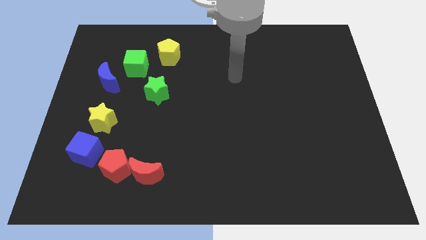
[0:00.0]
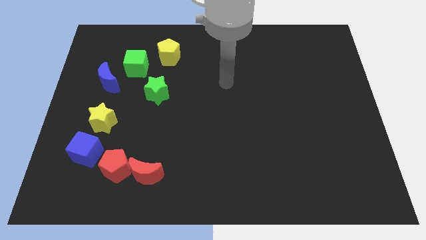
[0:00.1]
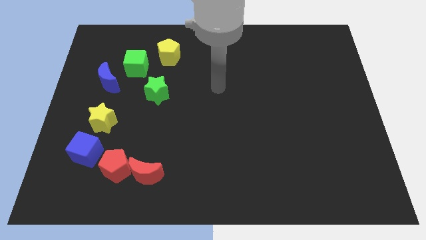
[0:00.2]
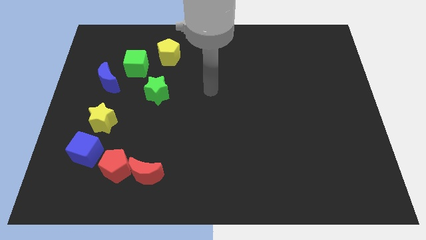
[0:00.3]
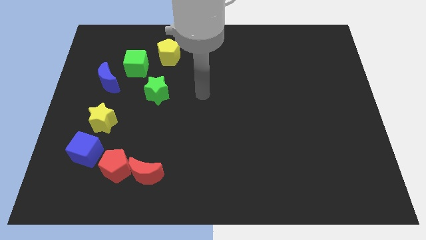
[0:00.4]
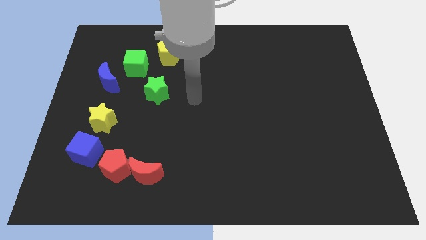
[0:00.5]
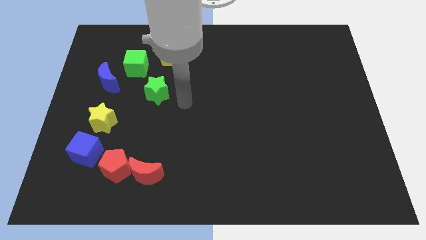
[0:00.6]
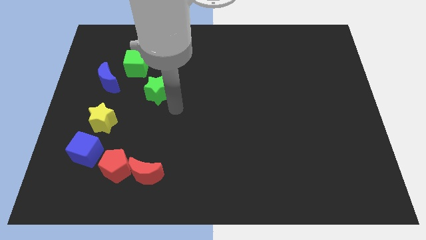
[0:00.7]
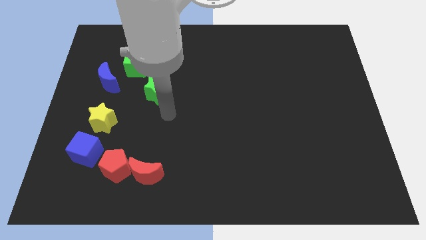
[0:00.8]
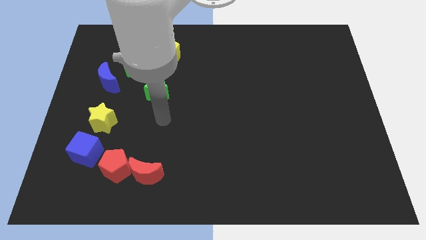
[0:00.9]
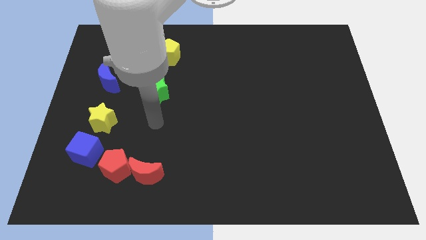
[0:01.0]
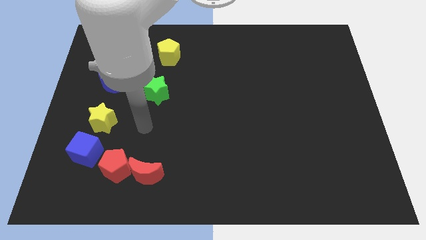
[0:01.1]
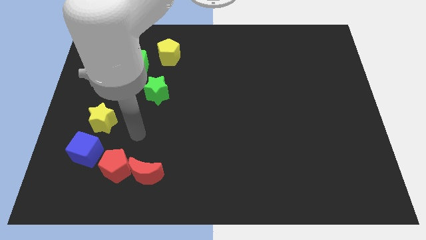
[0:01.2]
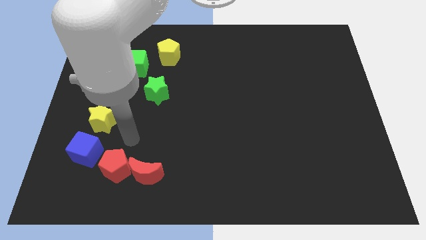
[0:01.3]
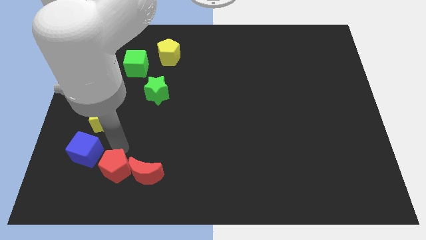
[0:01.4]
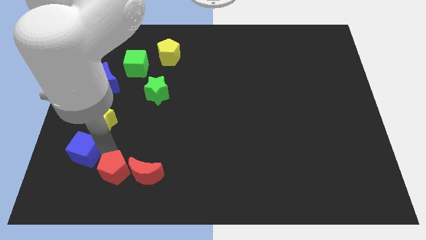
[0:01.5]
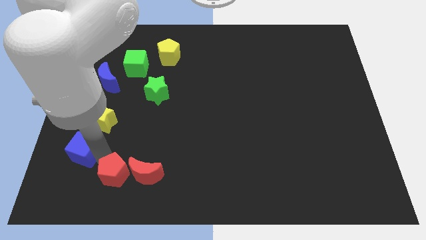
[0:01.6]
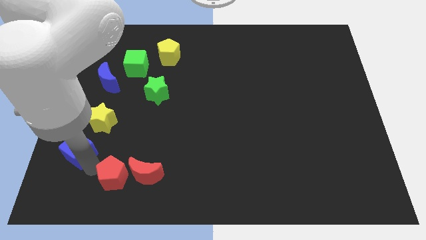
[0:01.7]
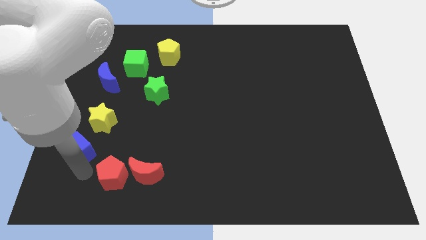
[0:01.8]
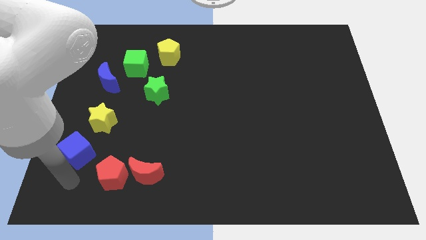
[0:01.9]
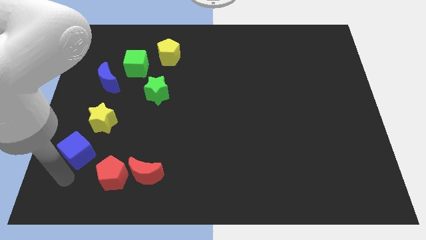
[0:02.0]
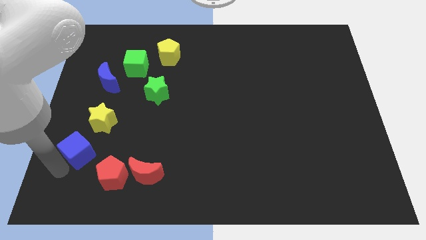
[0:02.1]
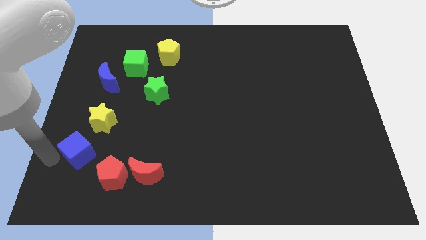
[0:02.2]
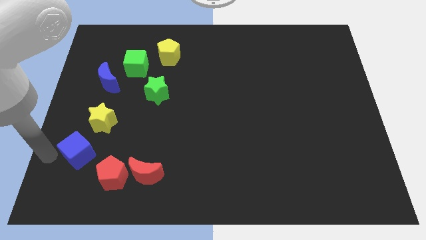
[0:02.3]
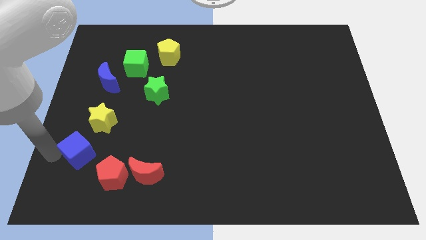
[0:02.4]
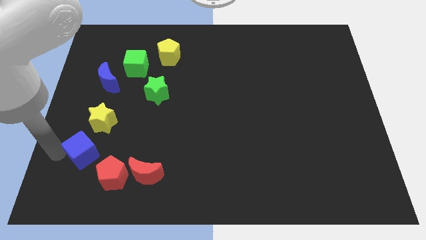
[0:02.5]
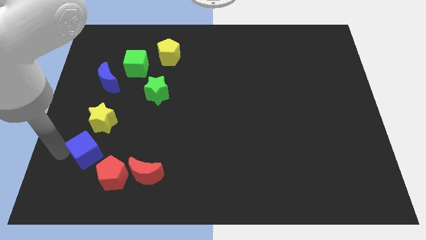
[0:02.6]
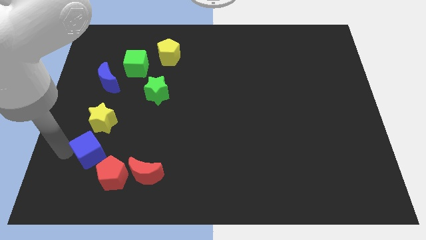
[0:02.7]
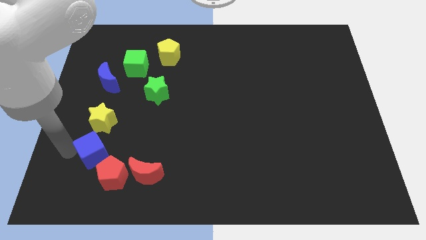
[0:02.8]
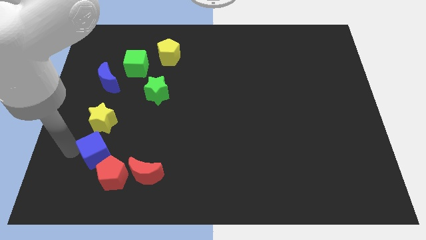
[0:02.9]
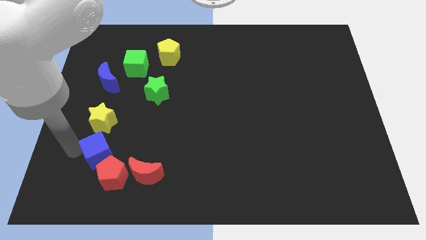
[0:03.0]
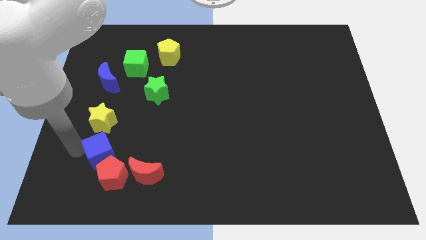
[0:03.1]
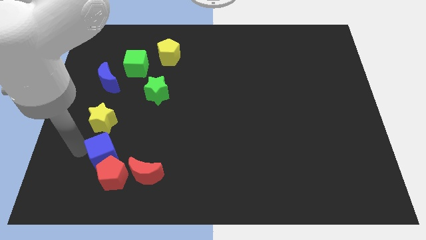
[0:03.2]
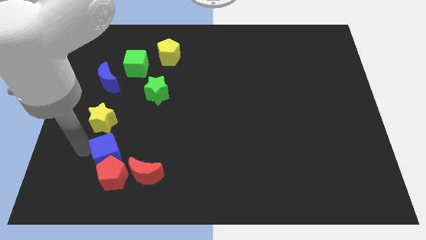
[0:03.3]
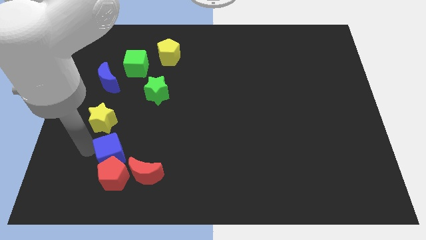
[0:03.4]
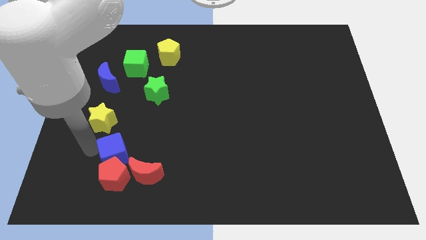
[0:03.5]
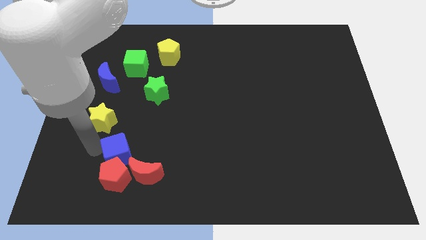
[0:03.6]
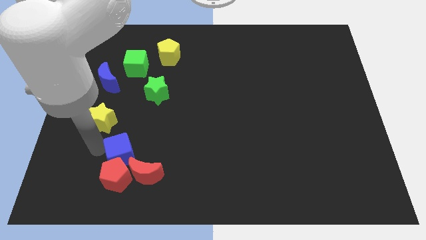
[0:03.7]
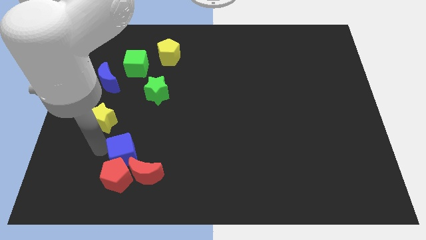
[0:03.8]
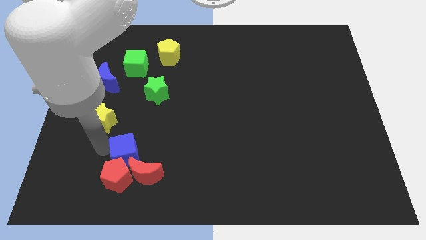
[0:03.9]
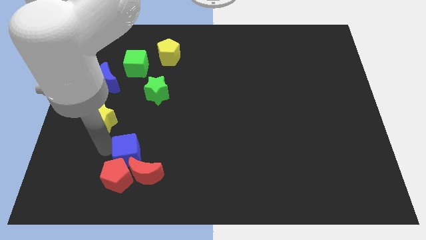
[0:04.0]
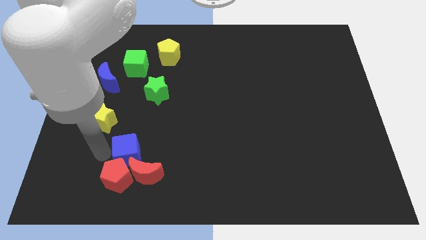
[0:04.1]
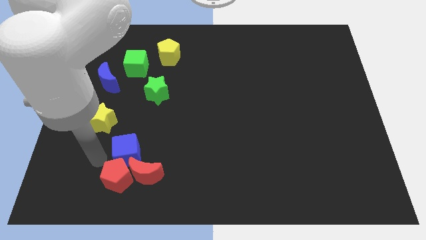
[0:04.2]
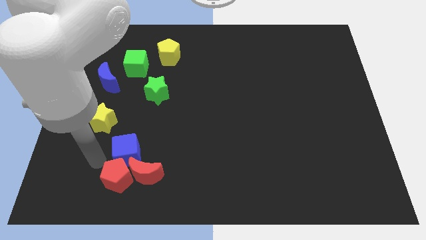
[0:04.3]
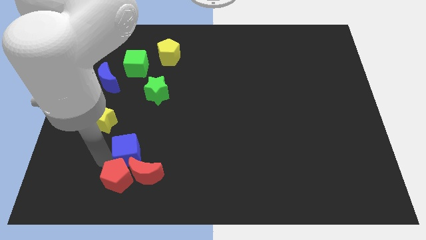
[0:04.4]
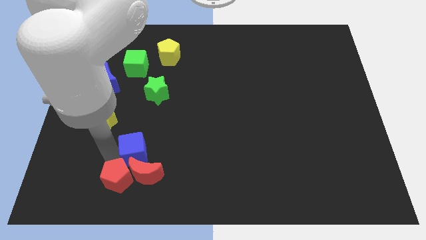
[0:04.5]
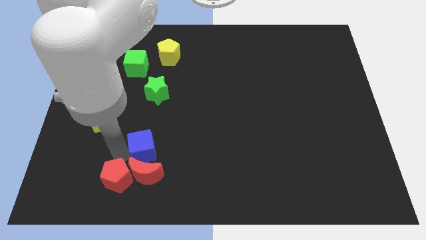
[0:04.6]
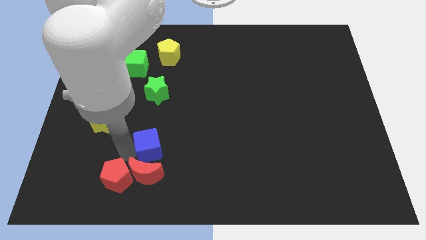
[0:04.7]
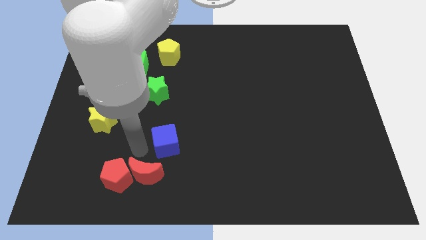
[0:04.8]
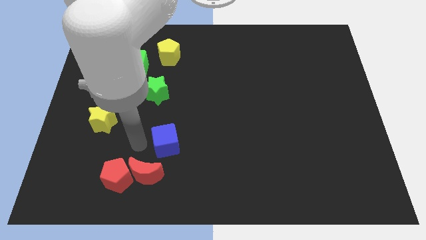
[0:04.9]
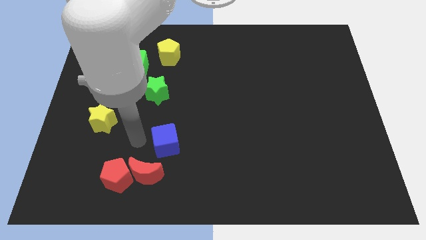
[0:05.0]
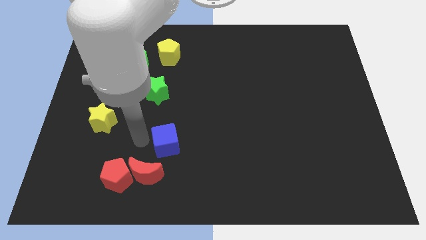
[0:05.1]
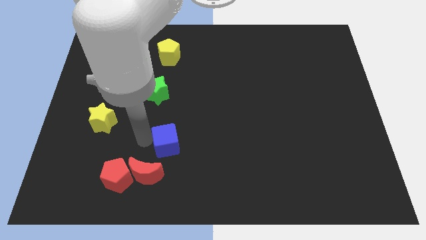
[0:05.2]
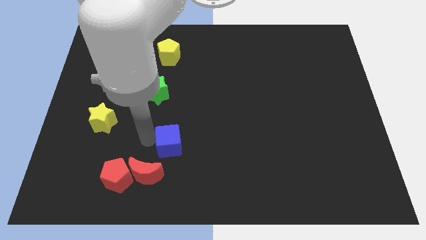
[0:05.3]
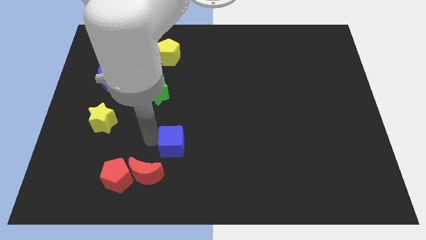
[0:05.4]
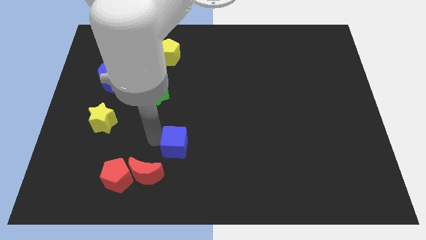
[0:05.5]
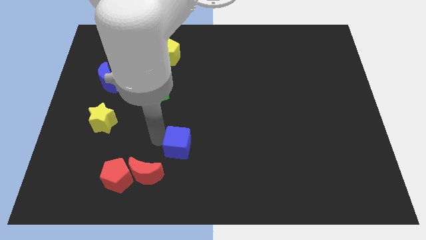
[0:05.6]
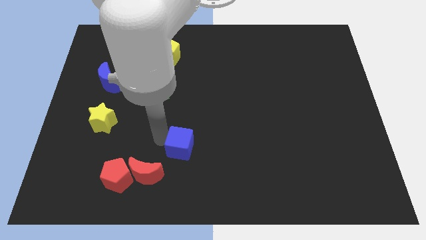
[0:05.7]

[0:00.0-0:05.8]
slide the blue cube to the right

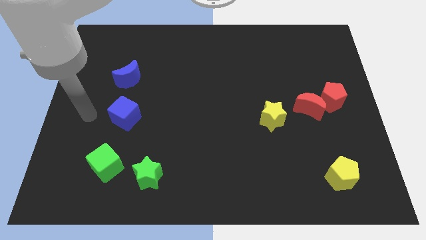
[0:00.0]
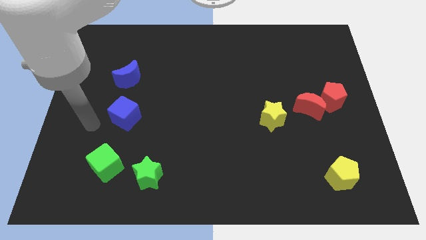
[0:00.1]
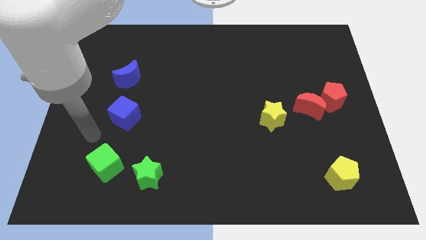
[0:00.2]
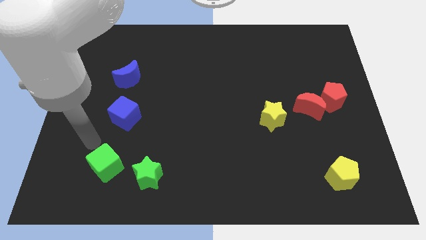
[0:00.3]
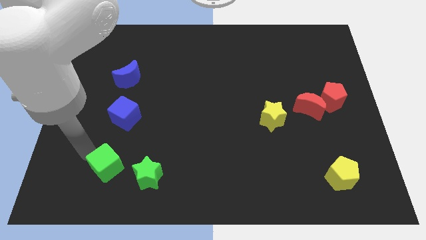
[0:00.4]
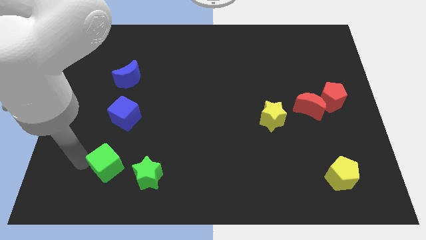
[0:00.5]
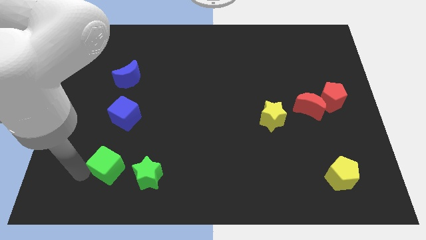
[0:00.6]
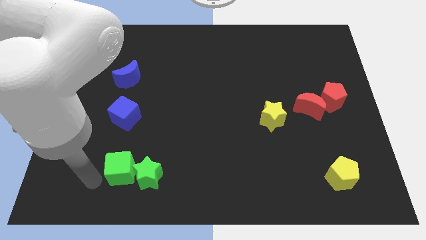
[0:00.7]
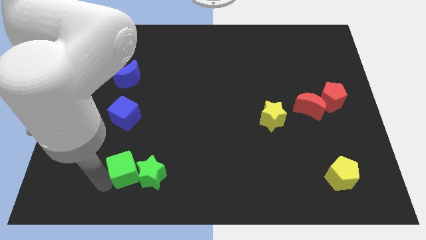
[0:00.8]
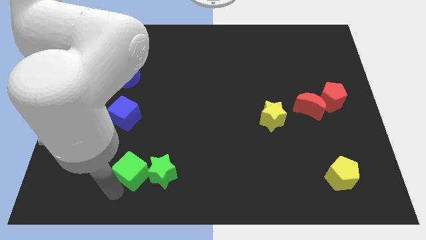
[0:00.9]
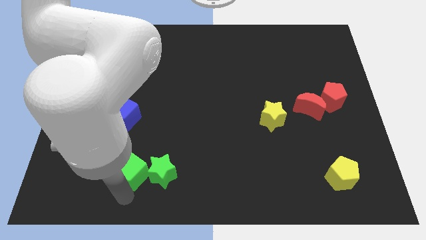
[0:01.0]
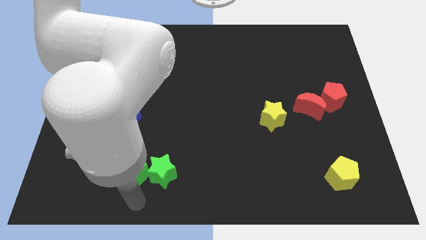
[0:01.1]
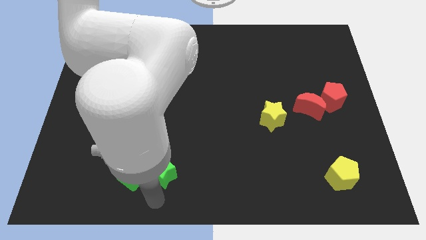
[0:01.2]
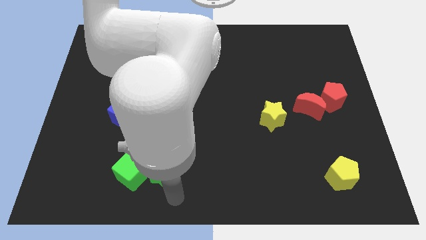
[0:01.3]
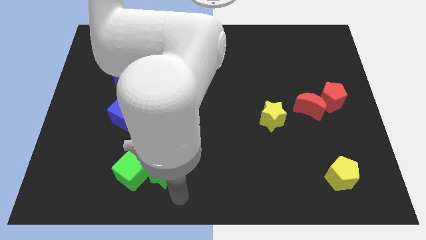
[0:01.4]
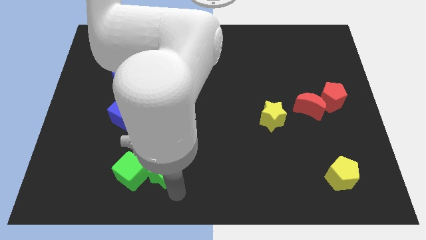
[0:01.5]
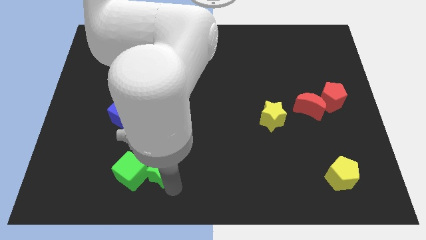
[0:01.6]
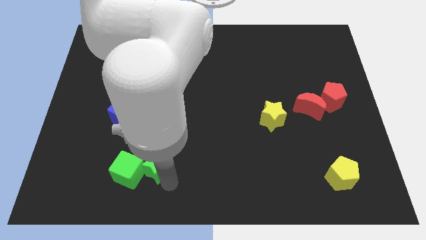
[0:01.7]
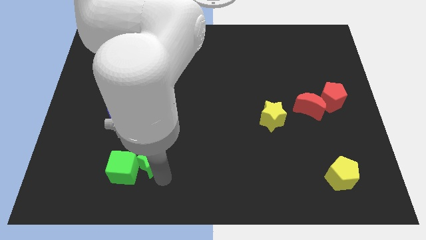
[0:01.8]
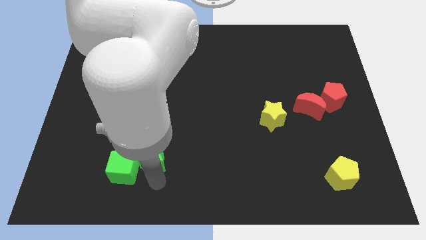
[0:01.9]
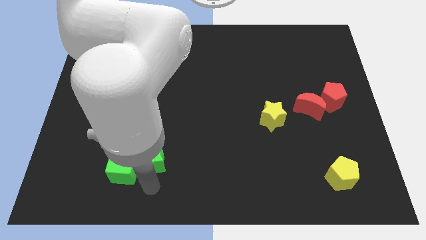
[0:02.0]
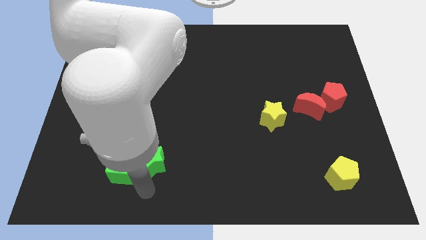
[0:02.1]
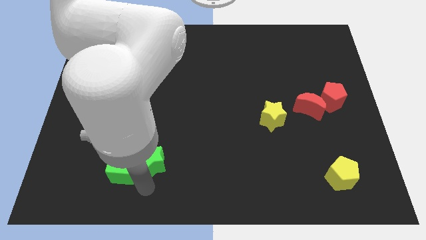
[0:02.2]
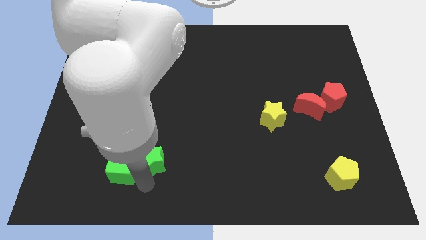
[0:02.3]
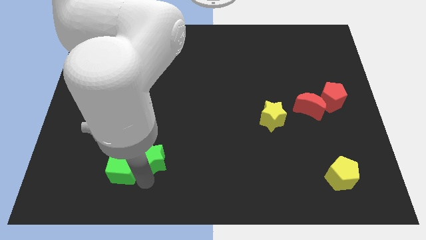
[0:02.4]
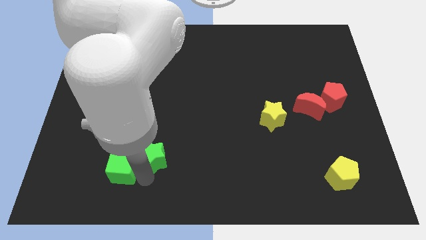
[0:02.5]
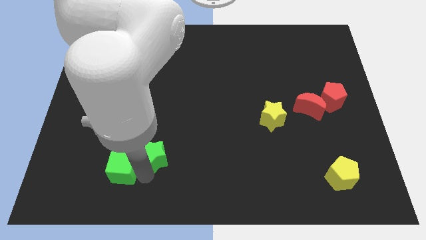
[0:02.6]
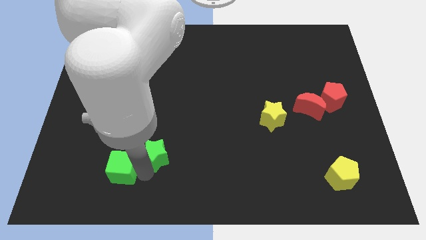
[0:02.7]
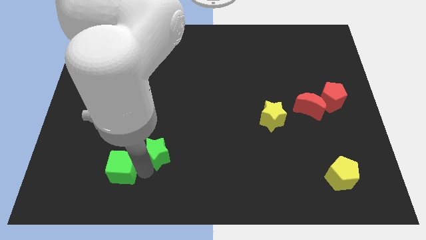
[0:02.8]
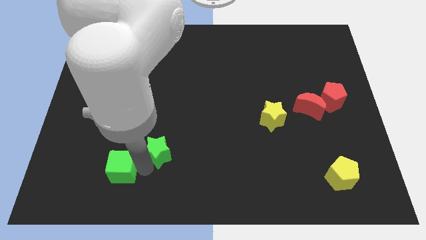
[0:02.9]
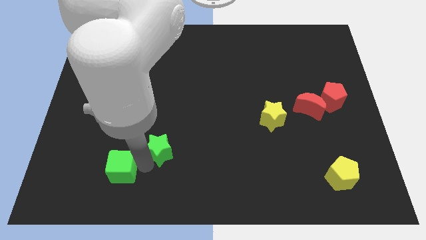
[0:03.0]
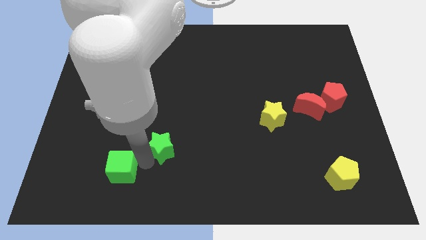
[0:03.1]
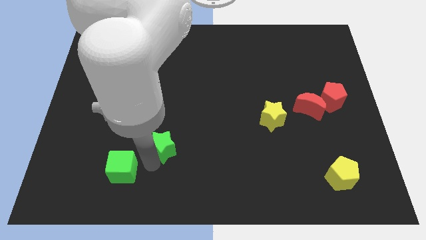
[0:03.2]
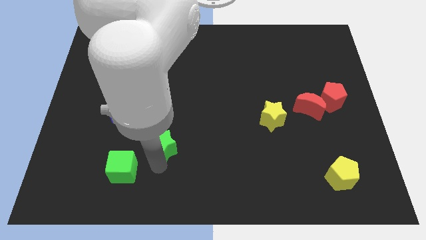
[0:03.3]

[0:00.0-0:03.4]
slide the green star upwards a bit
